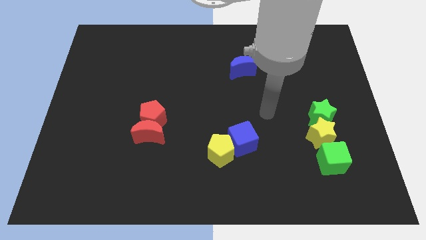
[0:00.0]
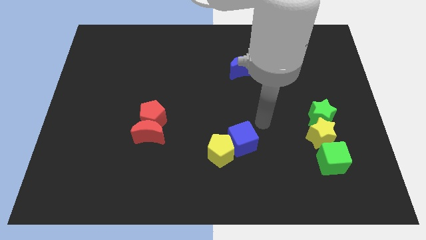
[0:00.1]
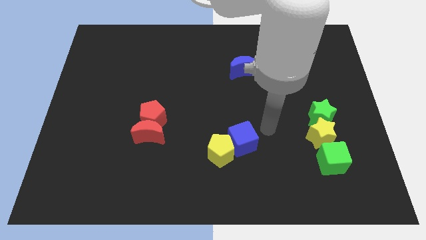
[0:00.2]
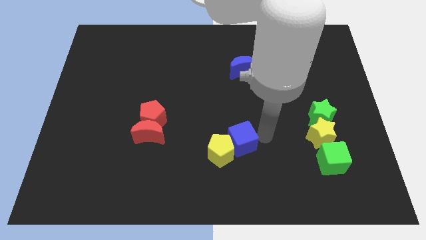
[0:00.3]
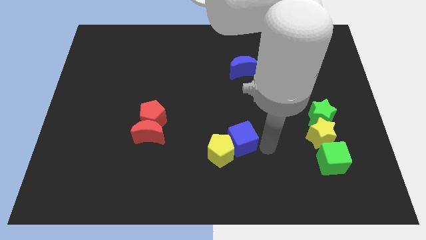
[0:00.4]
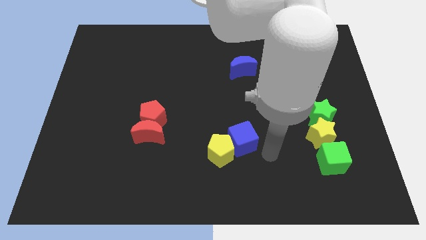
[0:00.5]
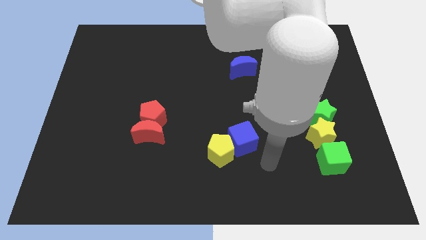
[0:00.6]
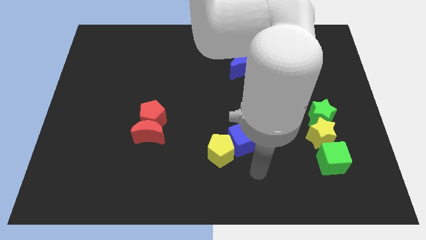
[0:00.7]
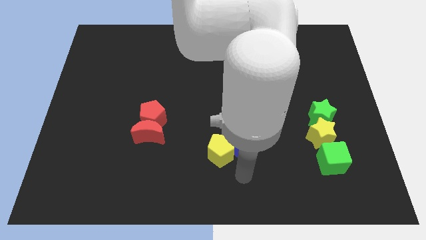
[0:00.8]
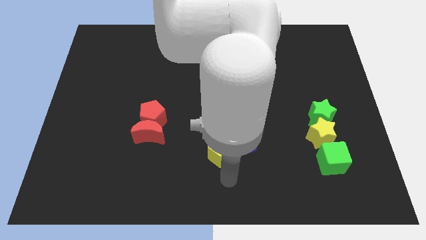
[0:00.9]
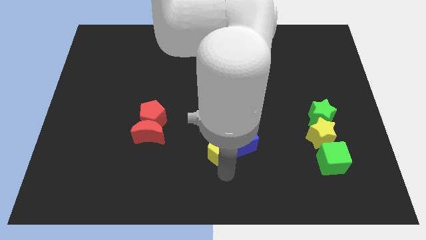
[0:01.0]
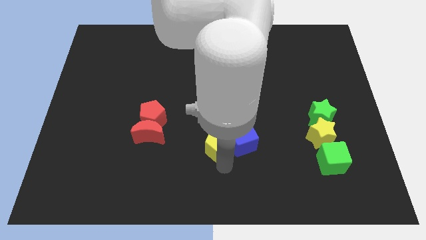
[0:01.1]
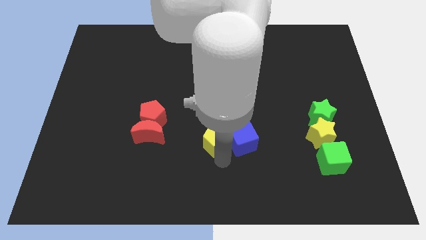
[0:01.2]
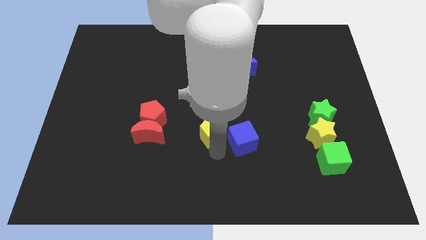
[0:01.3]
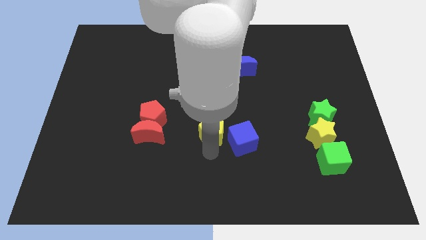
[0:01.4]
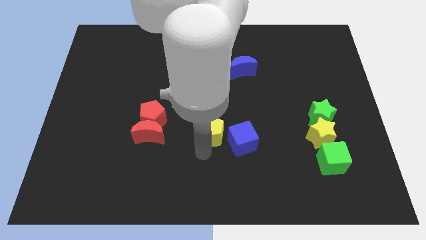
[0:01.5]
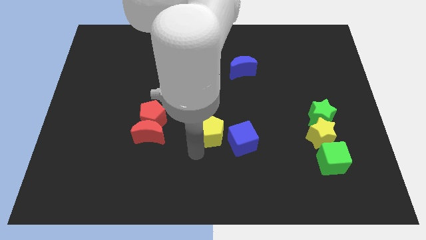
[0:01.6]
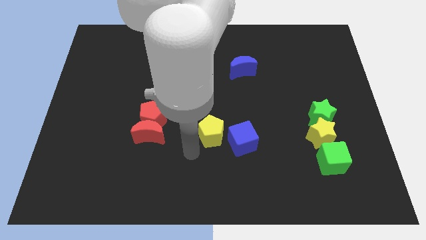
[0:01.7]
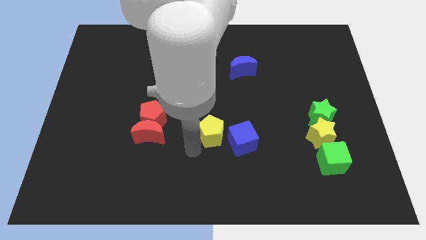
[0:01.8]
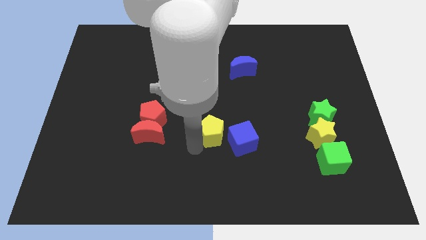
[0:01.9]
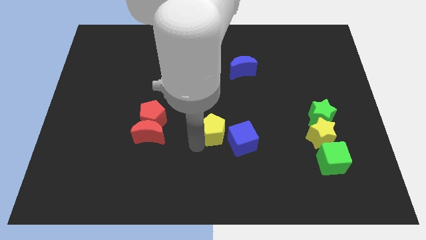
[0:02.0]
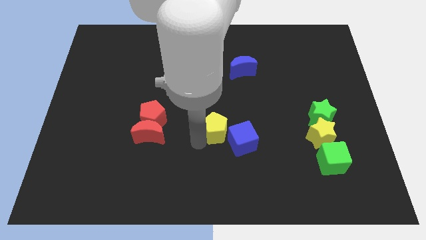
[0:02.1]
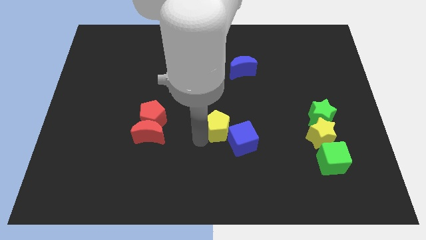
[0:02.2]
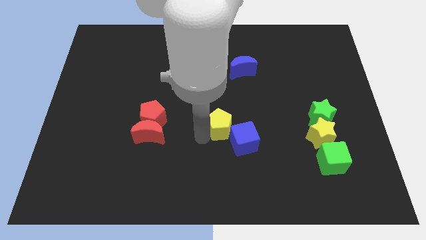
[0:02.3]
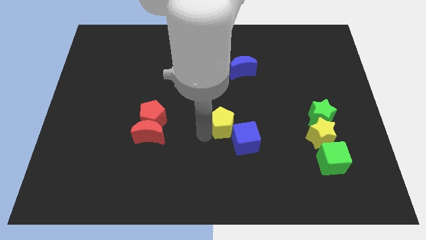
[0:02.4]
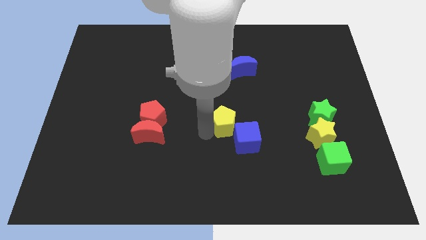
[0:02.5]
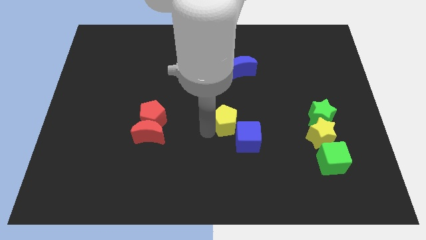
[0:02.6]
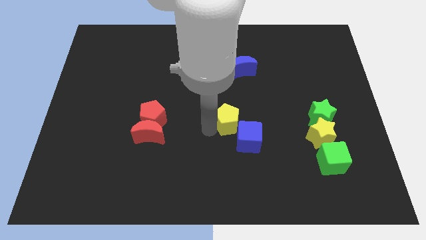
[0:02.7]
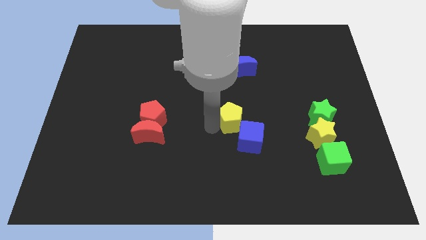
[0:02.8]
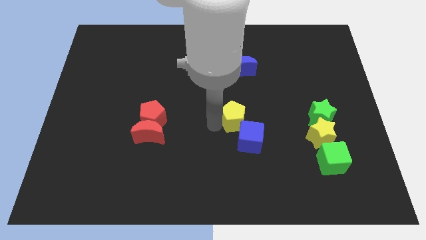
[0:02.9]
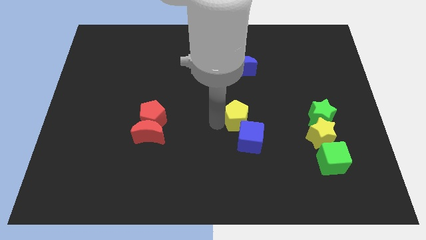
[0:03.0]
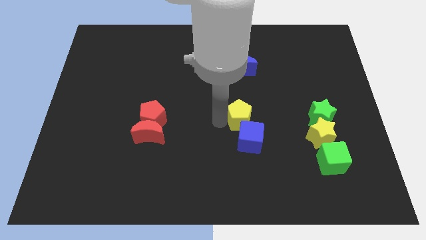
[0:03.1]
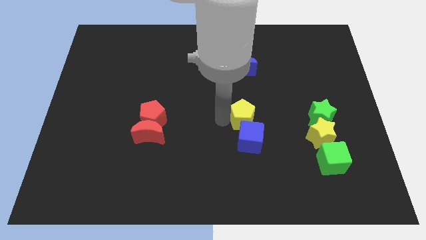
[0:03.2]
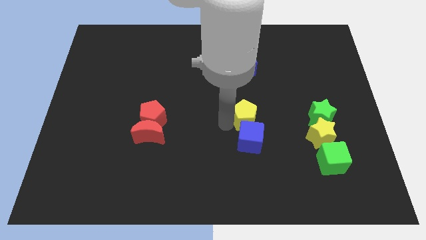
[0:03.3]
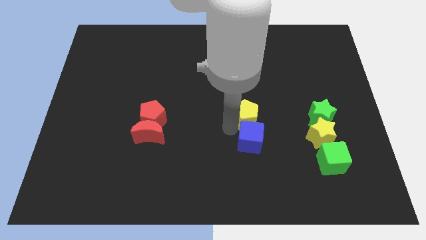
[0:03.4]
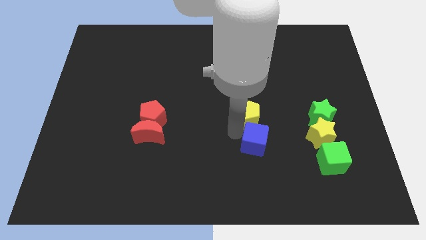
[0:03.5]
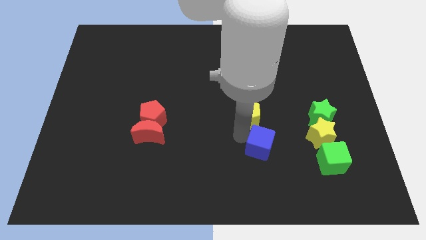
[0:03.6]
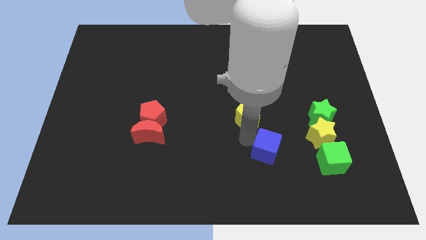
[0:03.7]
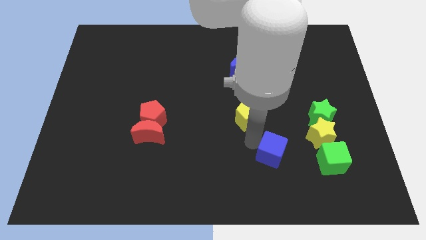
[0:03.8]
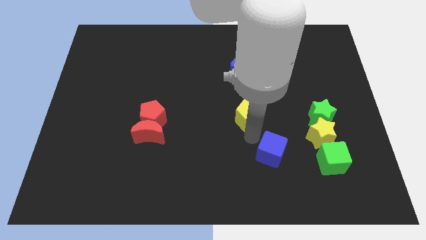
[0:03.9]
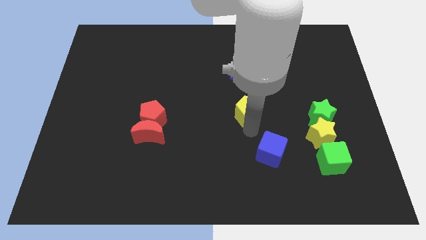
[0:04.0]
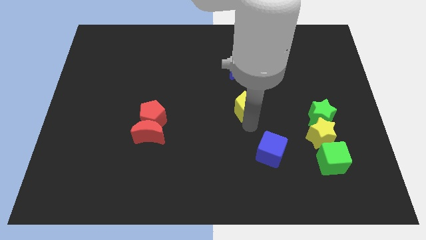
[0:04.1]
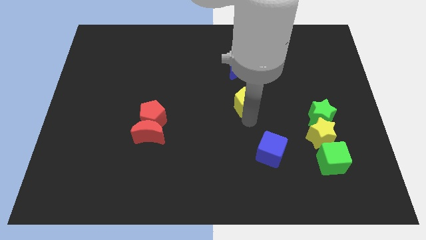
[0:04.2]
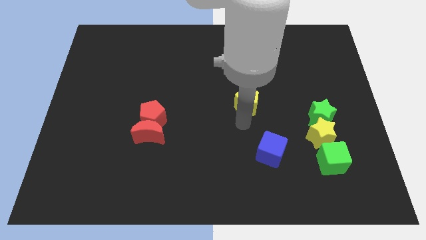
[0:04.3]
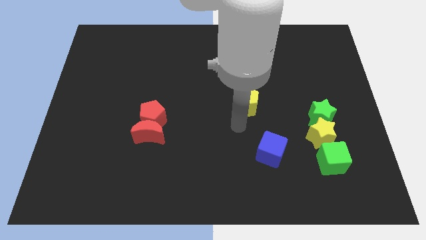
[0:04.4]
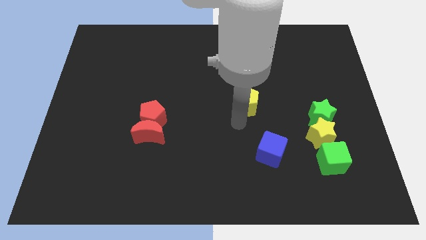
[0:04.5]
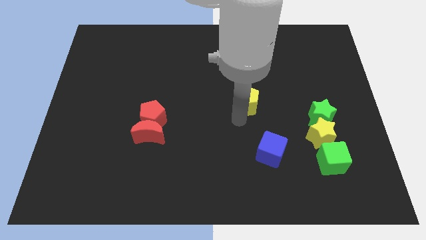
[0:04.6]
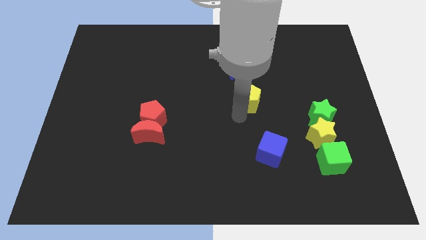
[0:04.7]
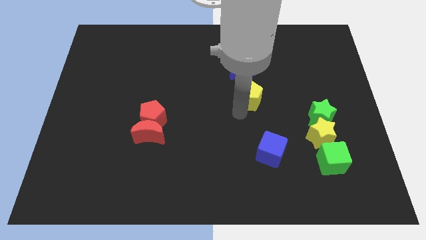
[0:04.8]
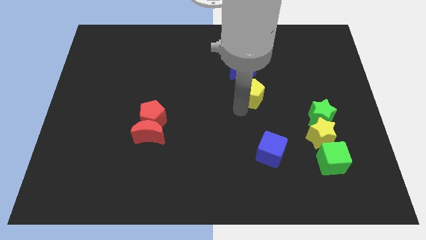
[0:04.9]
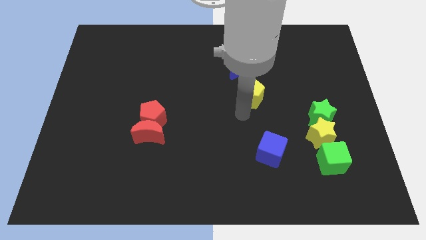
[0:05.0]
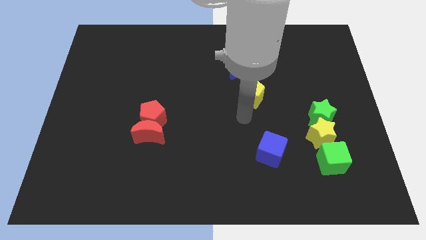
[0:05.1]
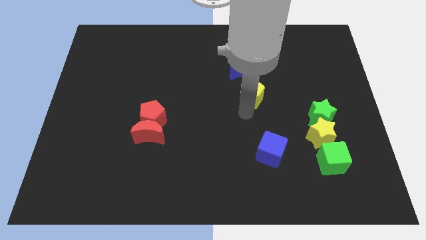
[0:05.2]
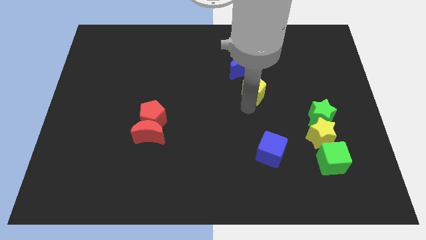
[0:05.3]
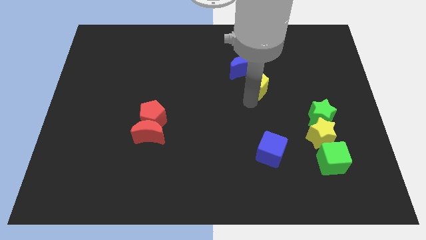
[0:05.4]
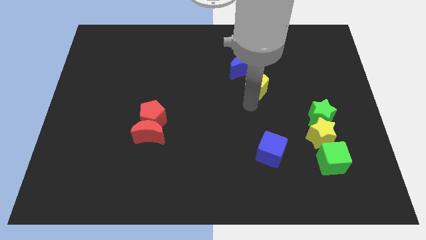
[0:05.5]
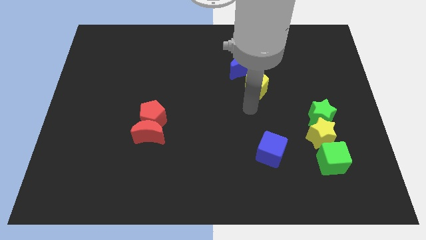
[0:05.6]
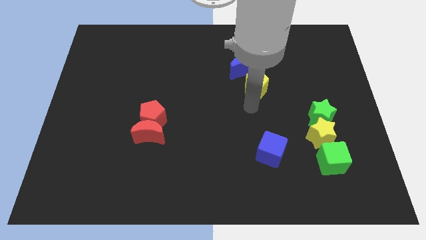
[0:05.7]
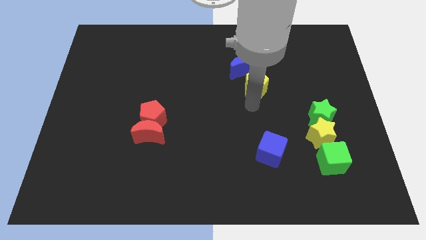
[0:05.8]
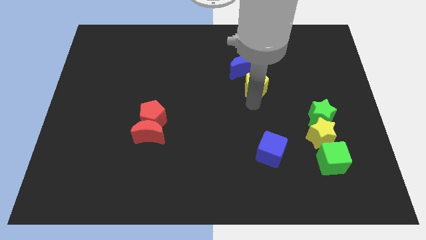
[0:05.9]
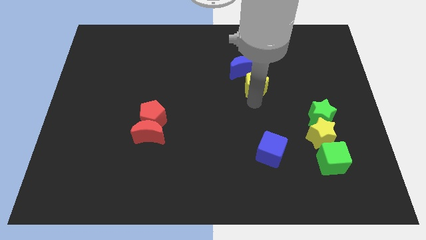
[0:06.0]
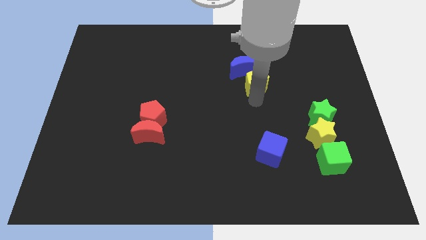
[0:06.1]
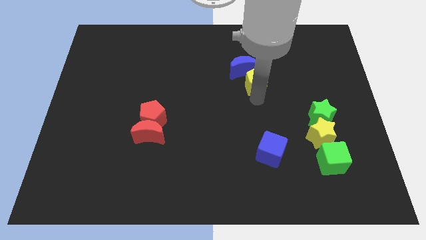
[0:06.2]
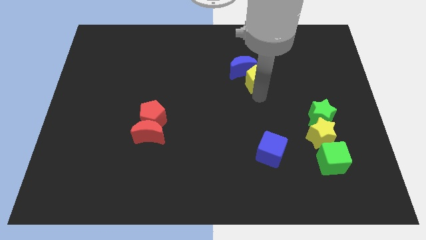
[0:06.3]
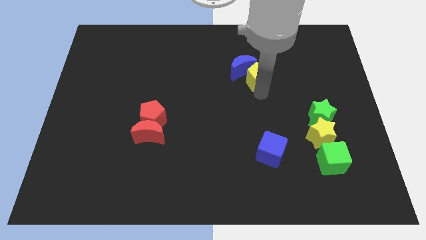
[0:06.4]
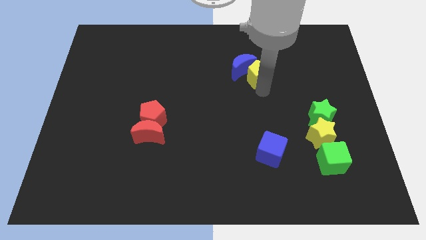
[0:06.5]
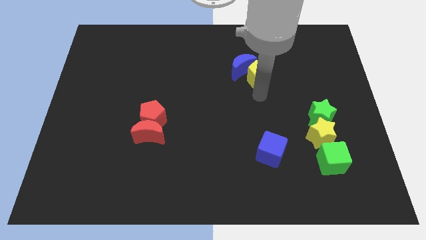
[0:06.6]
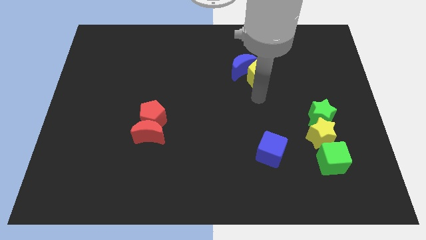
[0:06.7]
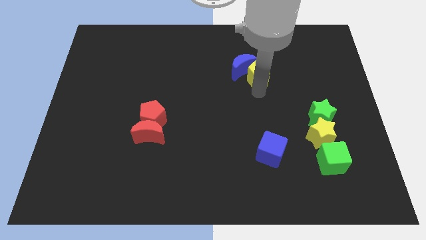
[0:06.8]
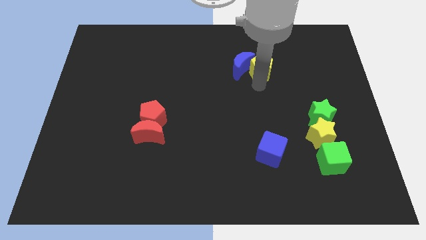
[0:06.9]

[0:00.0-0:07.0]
put the yellow pentagon diagonally up and to the right of the blue moon
